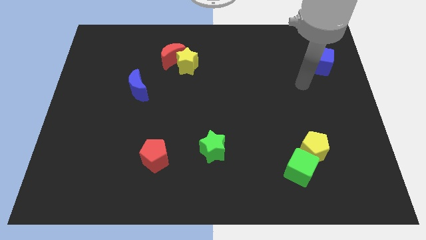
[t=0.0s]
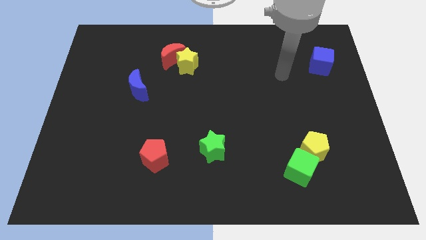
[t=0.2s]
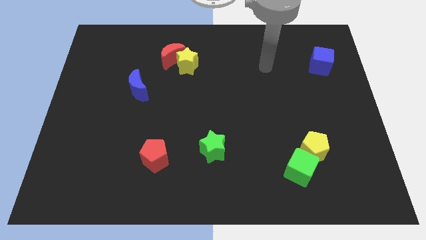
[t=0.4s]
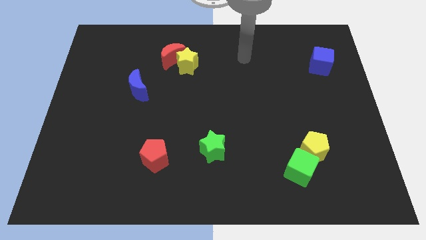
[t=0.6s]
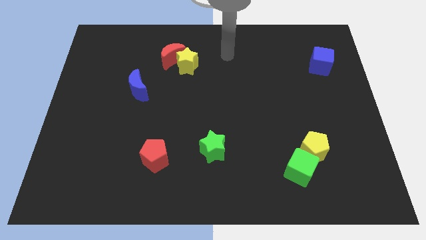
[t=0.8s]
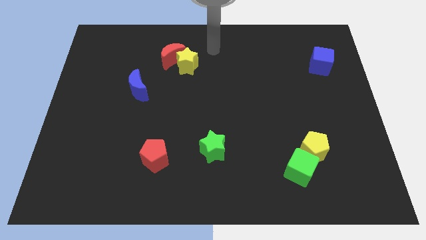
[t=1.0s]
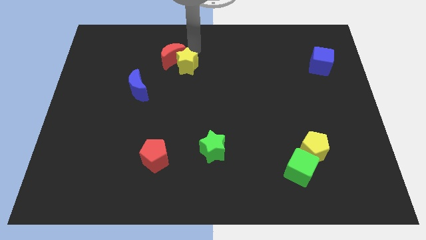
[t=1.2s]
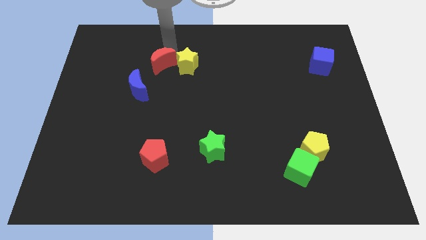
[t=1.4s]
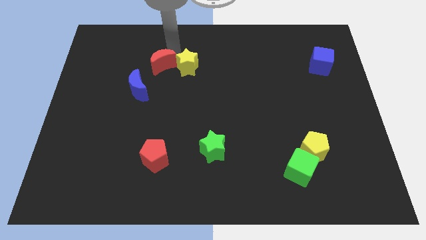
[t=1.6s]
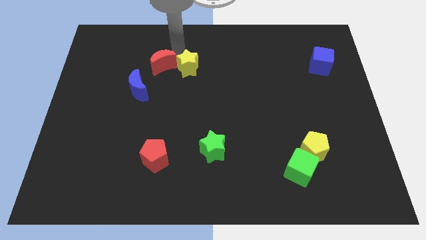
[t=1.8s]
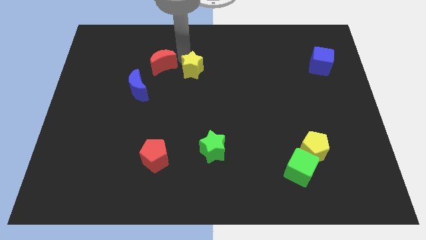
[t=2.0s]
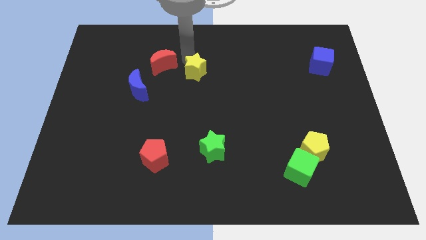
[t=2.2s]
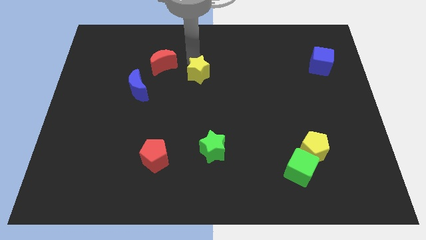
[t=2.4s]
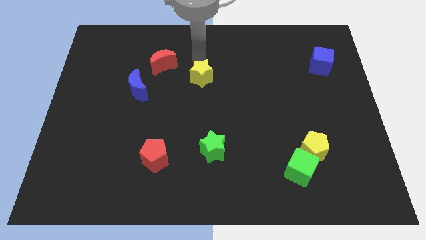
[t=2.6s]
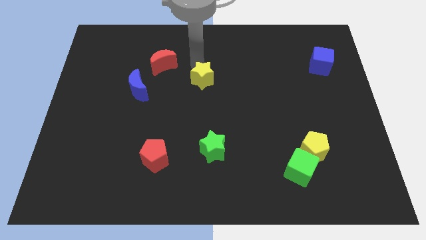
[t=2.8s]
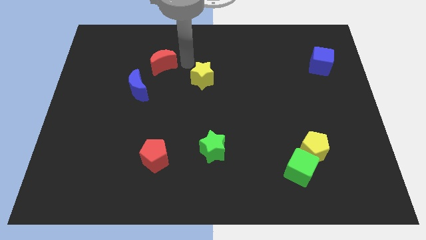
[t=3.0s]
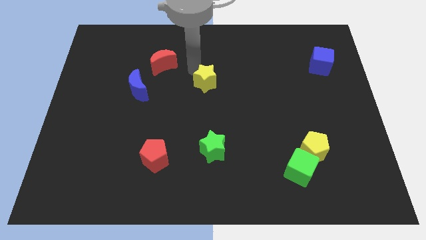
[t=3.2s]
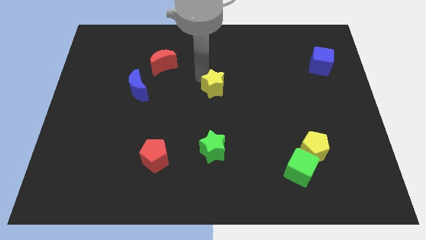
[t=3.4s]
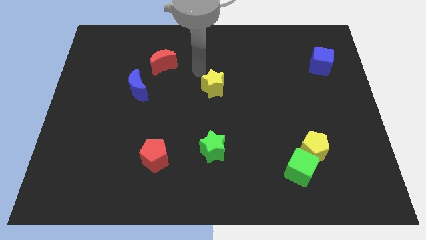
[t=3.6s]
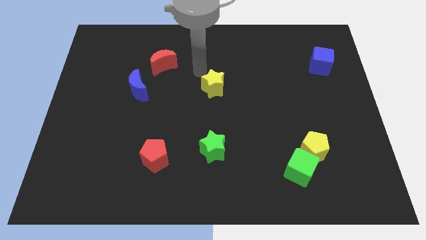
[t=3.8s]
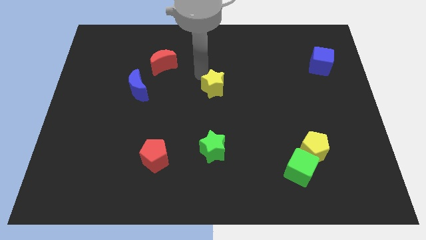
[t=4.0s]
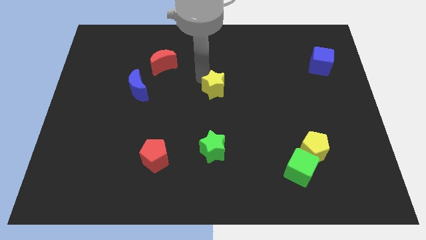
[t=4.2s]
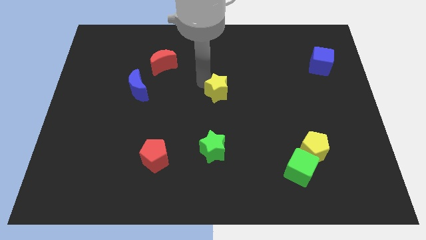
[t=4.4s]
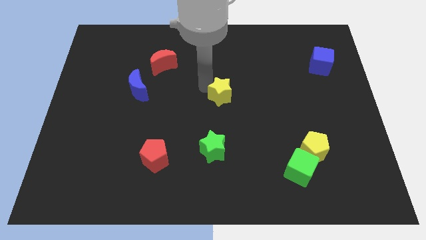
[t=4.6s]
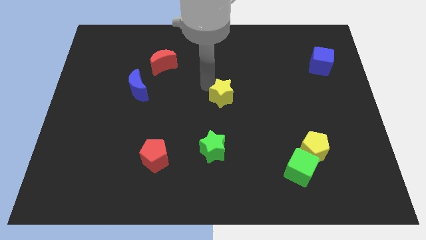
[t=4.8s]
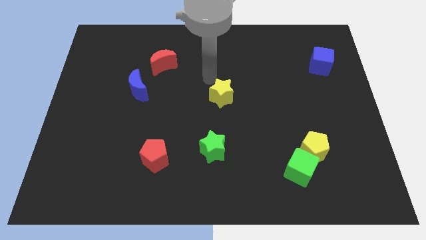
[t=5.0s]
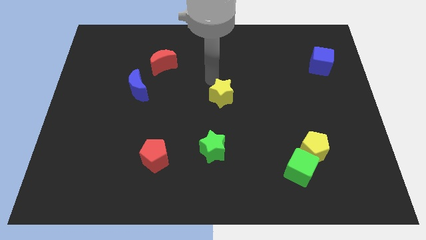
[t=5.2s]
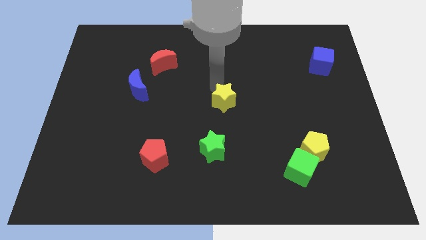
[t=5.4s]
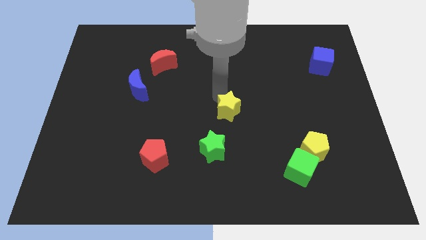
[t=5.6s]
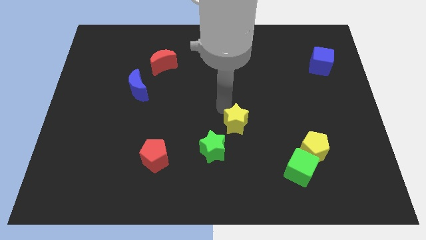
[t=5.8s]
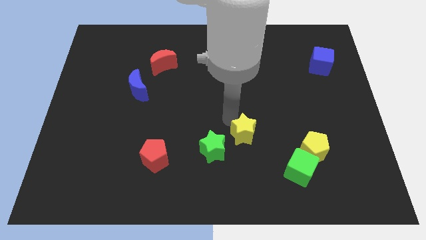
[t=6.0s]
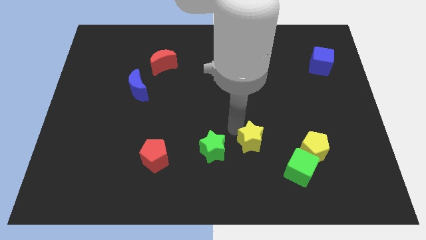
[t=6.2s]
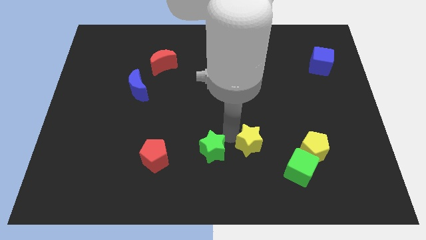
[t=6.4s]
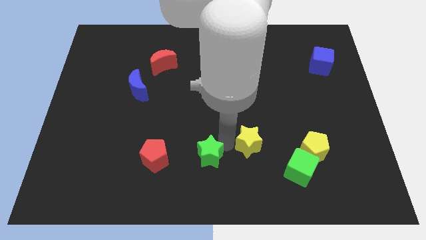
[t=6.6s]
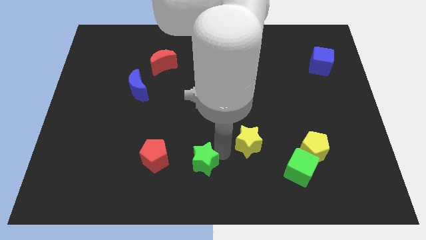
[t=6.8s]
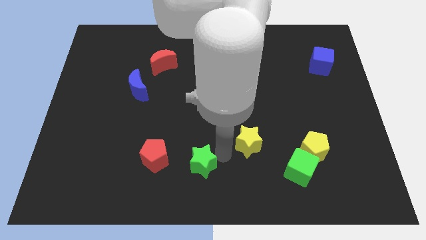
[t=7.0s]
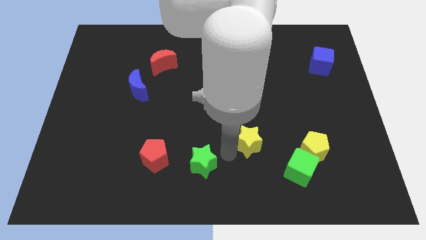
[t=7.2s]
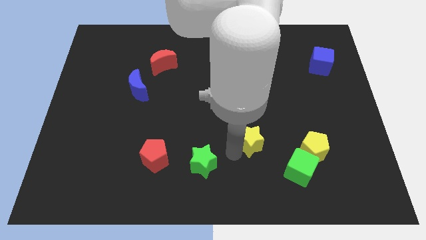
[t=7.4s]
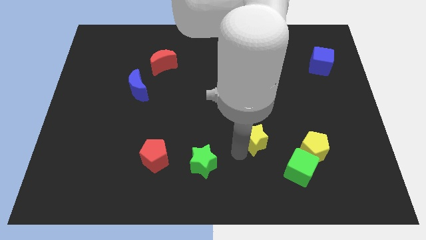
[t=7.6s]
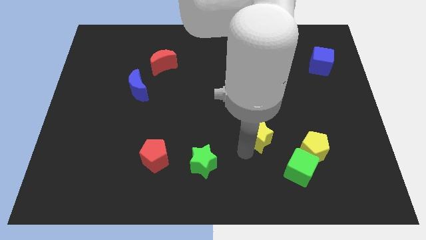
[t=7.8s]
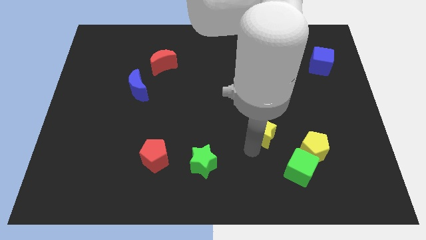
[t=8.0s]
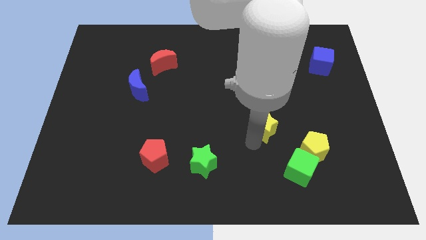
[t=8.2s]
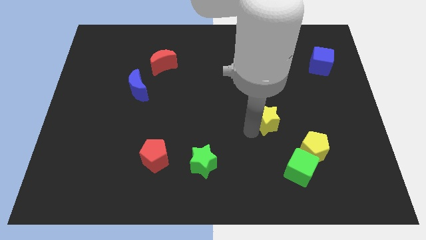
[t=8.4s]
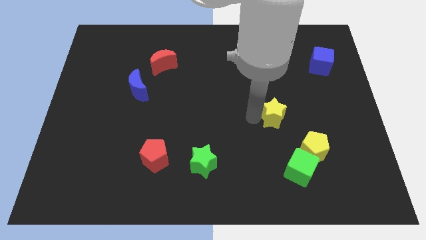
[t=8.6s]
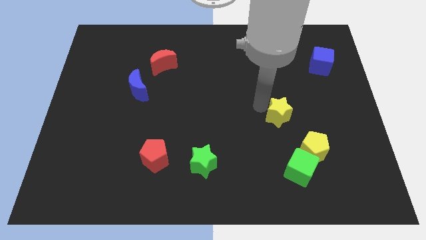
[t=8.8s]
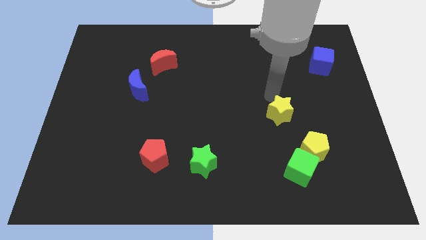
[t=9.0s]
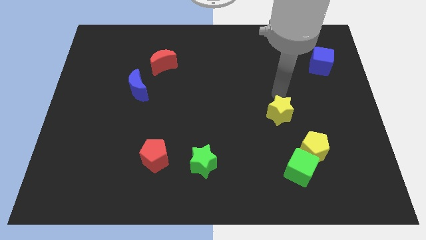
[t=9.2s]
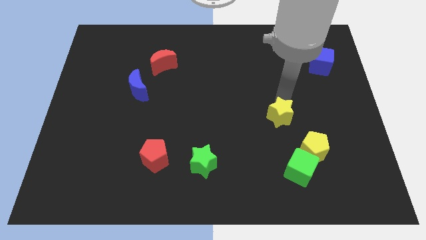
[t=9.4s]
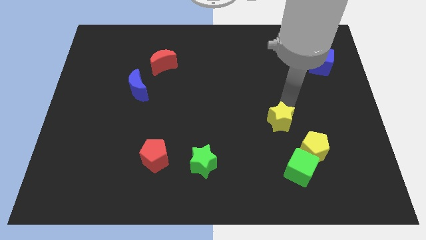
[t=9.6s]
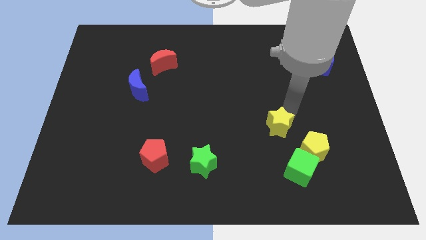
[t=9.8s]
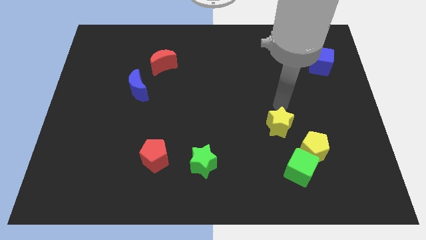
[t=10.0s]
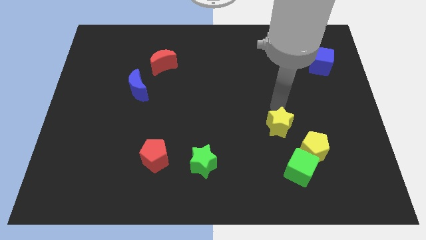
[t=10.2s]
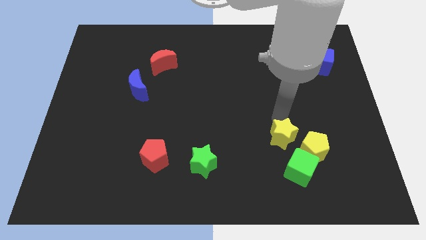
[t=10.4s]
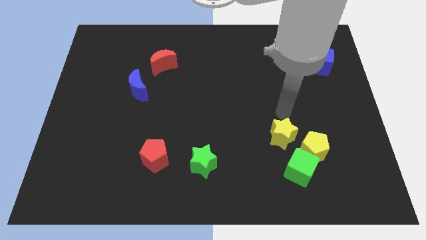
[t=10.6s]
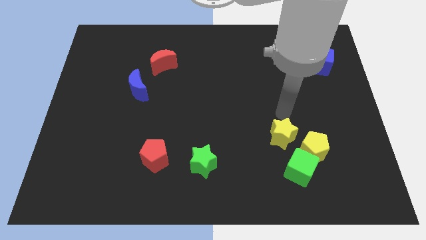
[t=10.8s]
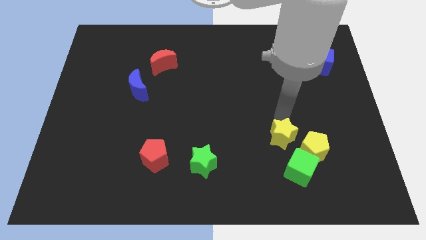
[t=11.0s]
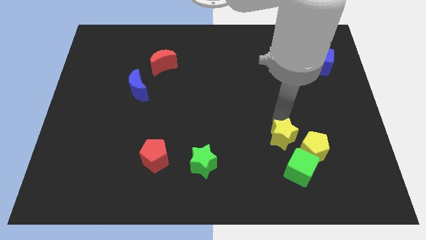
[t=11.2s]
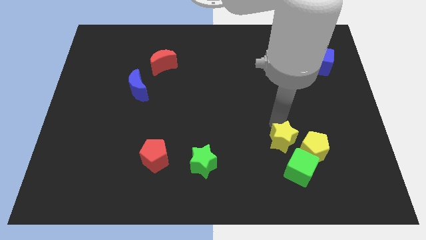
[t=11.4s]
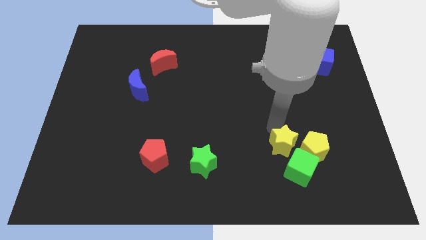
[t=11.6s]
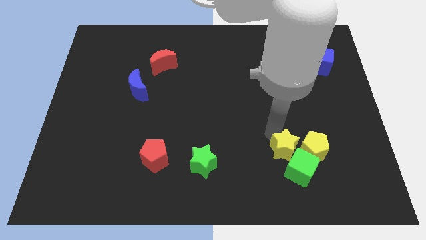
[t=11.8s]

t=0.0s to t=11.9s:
push the yellow star close to the green cube
